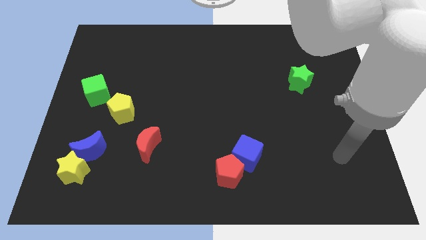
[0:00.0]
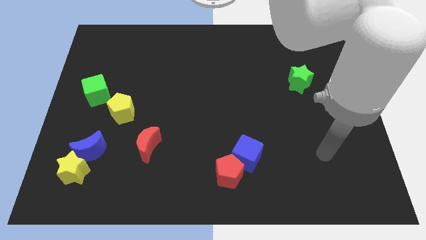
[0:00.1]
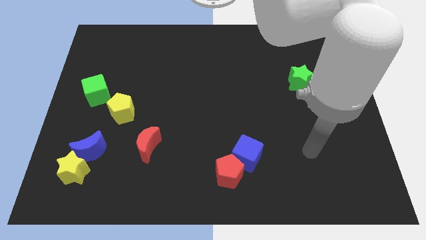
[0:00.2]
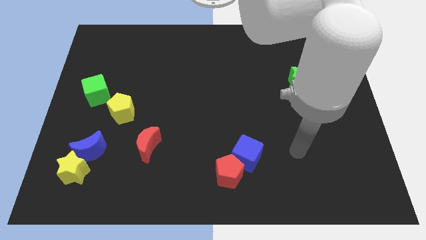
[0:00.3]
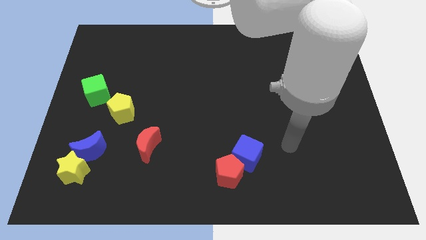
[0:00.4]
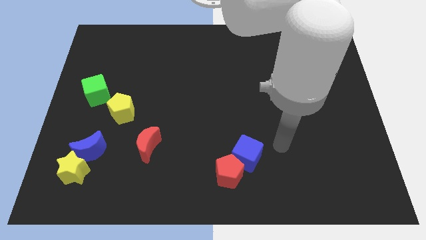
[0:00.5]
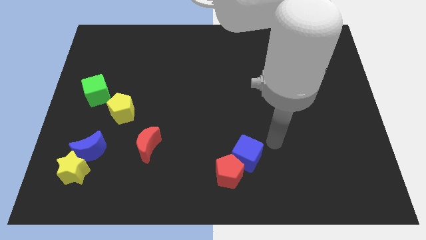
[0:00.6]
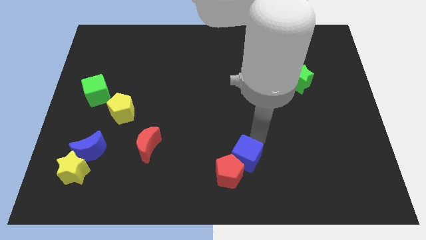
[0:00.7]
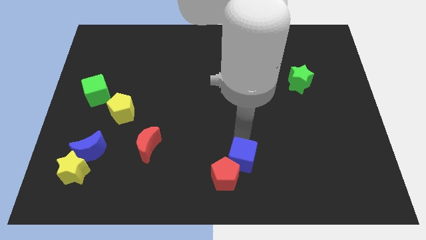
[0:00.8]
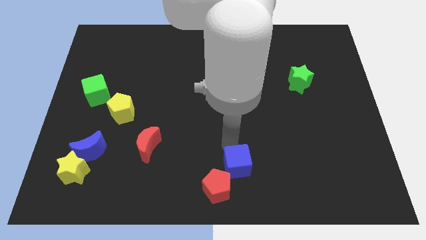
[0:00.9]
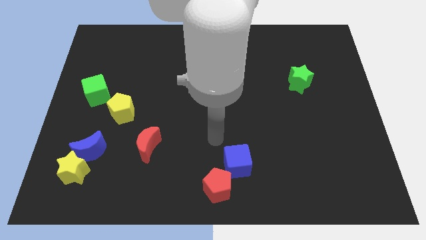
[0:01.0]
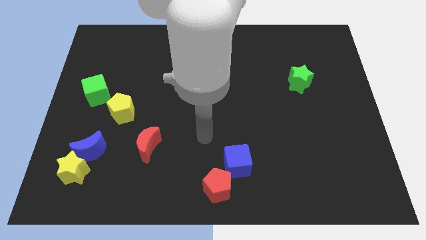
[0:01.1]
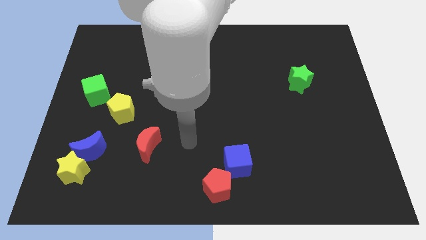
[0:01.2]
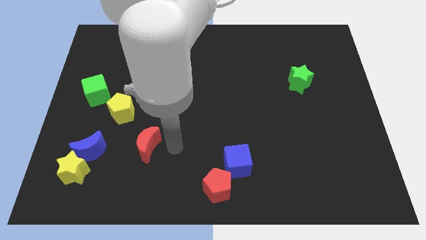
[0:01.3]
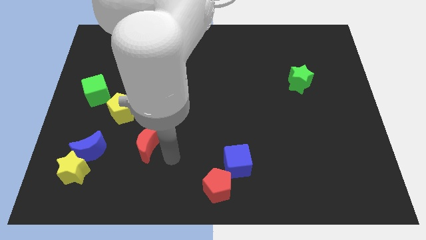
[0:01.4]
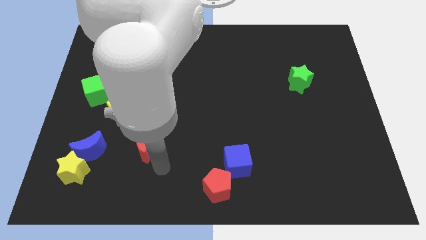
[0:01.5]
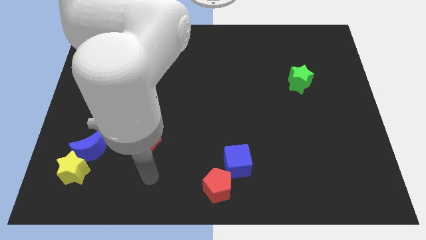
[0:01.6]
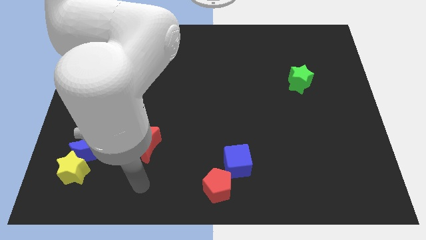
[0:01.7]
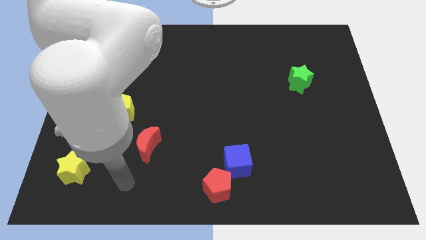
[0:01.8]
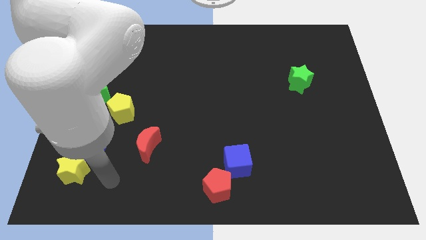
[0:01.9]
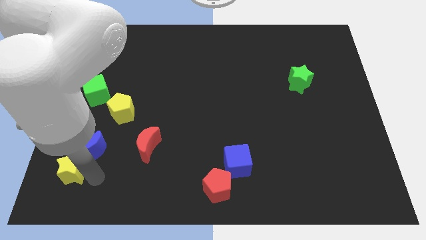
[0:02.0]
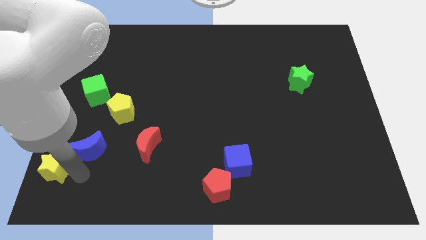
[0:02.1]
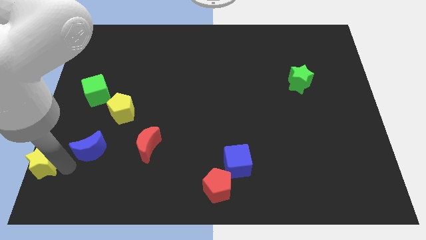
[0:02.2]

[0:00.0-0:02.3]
pull the blue moon apart from the yellow star

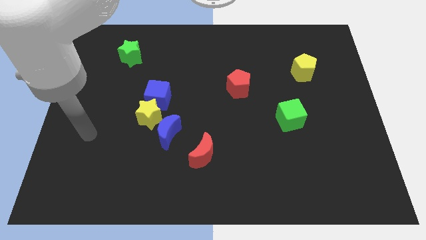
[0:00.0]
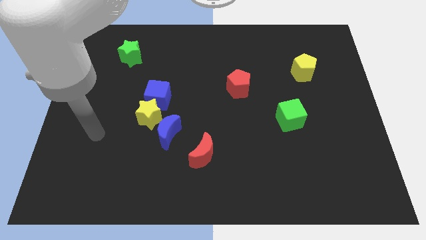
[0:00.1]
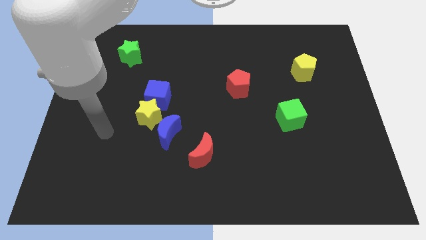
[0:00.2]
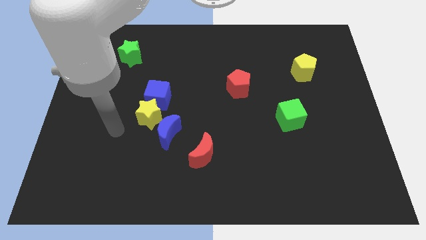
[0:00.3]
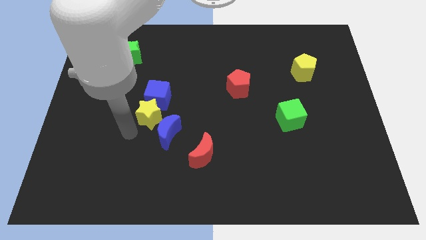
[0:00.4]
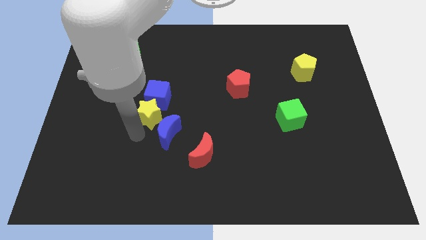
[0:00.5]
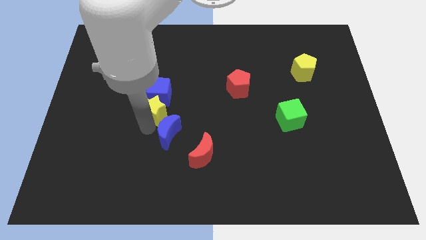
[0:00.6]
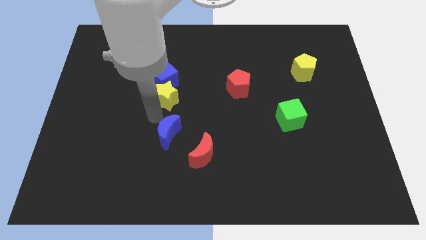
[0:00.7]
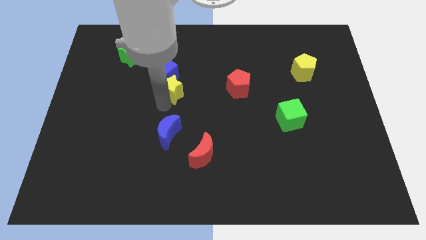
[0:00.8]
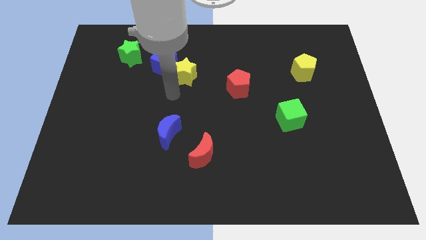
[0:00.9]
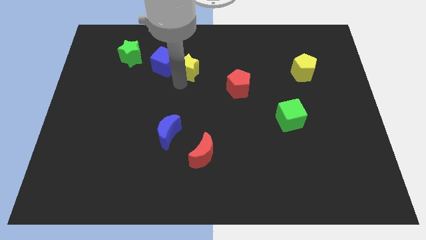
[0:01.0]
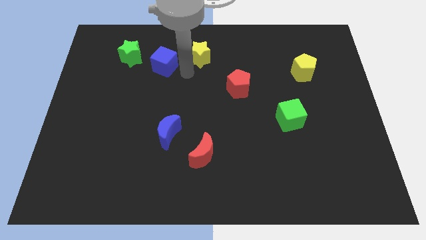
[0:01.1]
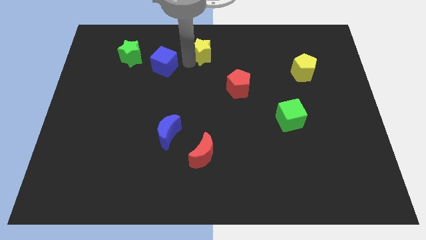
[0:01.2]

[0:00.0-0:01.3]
separate the blue cube from the yellow star

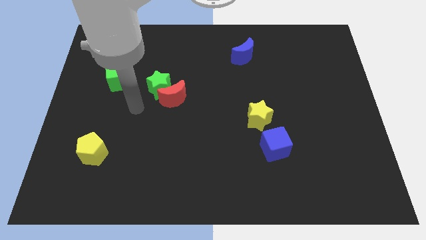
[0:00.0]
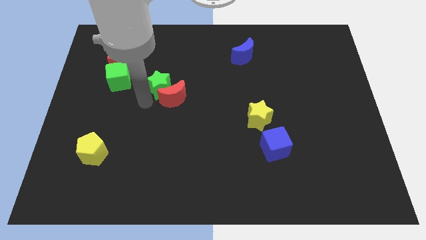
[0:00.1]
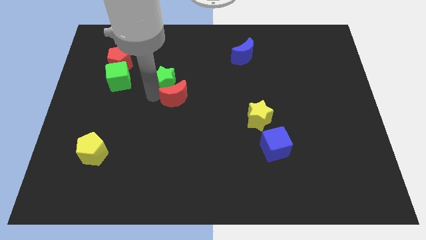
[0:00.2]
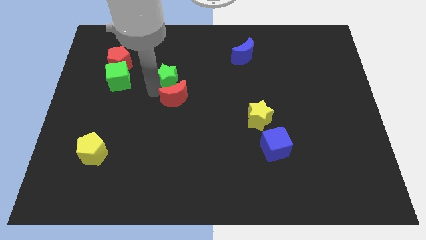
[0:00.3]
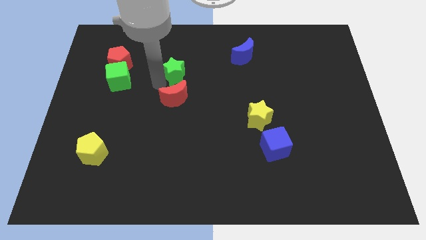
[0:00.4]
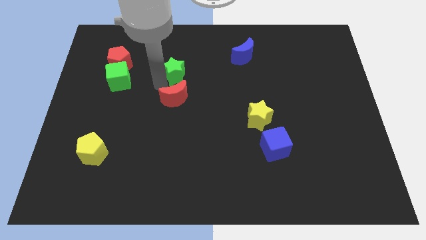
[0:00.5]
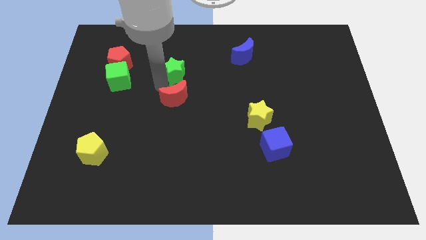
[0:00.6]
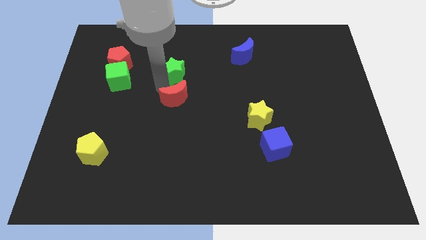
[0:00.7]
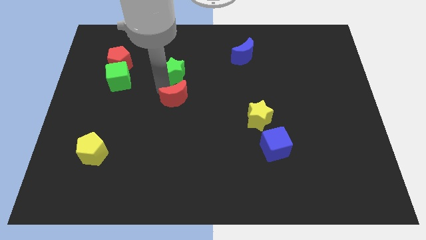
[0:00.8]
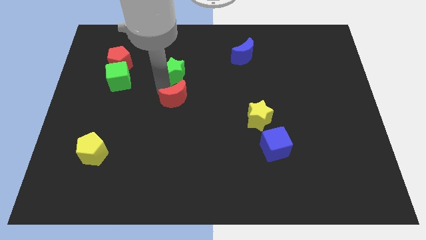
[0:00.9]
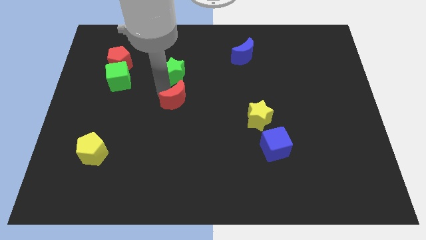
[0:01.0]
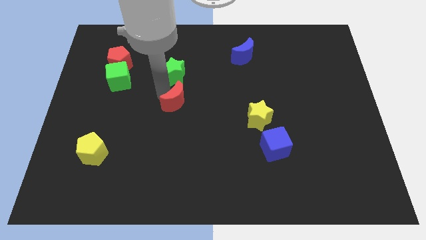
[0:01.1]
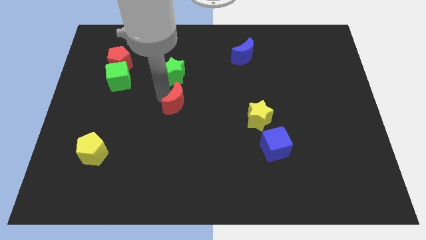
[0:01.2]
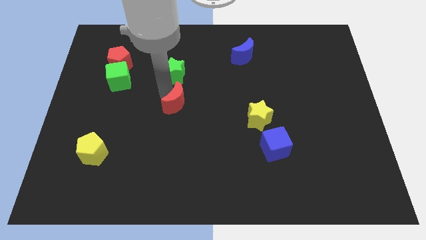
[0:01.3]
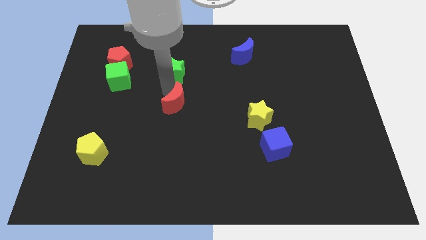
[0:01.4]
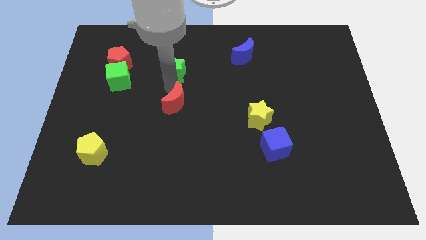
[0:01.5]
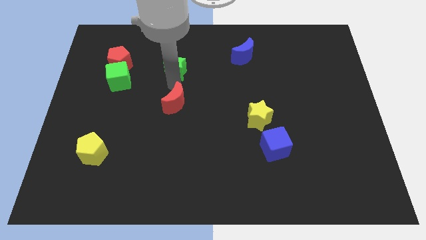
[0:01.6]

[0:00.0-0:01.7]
pull the red moon apart from the green star

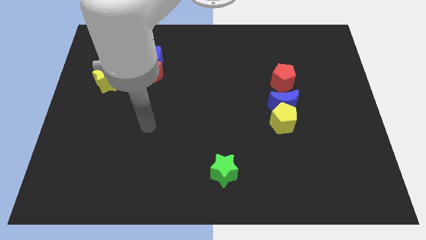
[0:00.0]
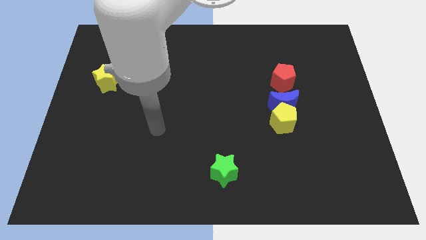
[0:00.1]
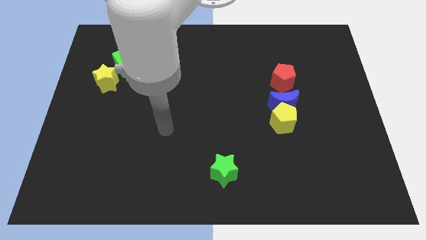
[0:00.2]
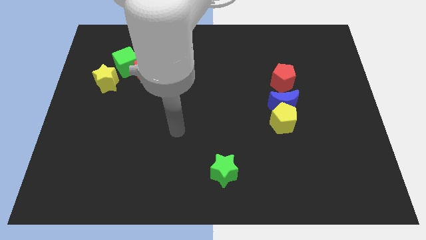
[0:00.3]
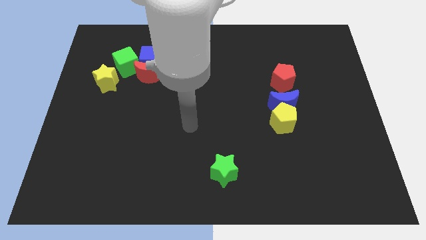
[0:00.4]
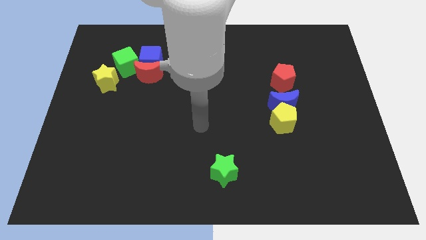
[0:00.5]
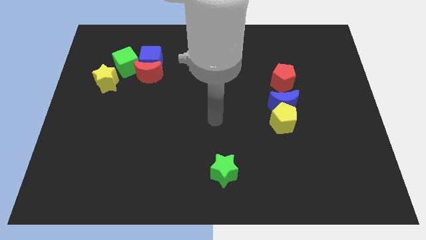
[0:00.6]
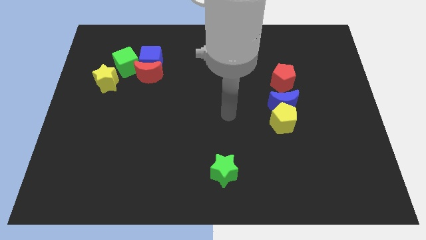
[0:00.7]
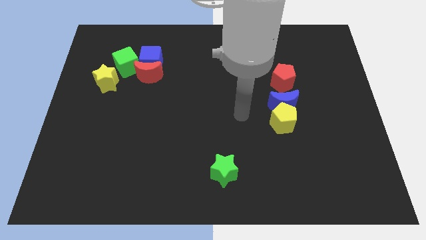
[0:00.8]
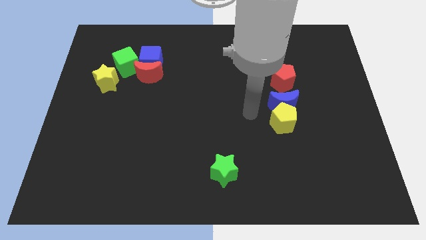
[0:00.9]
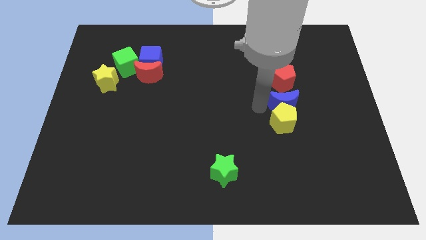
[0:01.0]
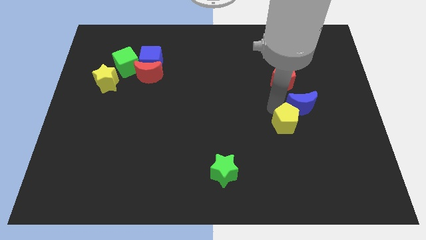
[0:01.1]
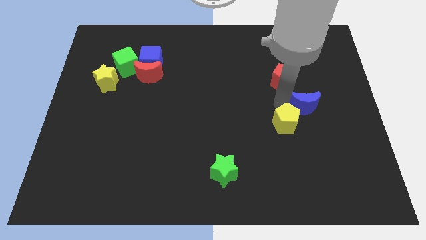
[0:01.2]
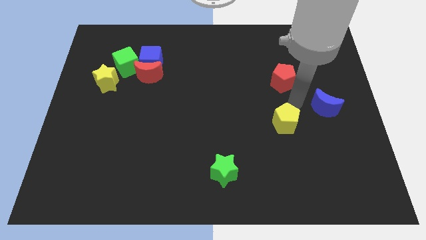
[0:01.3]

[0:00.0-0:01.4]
move the yellow pentagon away from the blue moon

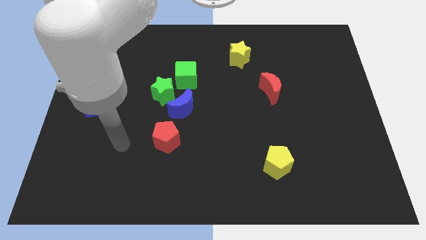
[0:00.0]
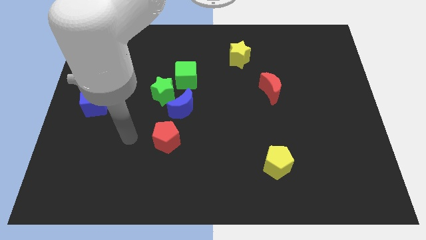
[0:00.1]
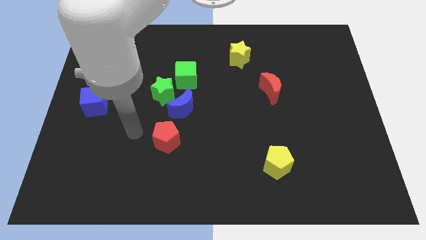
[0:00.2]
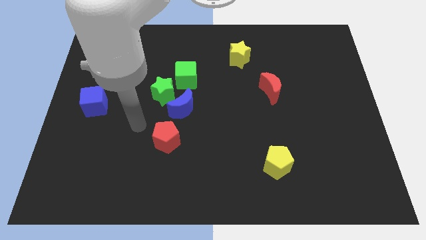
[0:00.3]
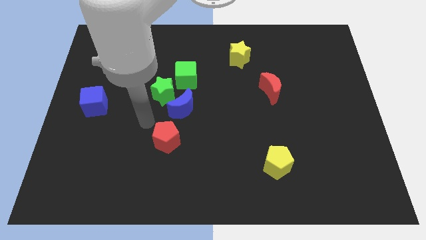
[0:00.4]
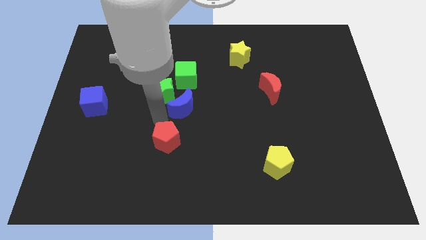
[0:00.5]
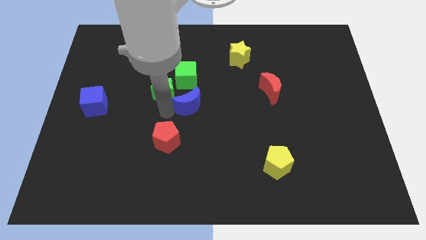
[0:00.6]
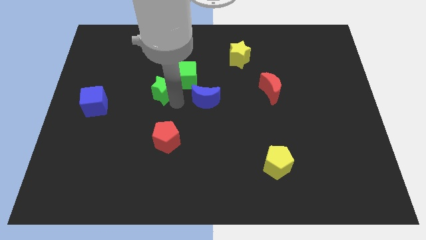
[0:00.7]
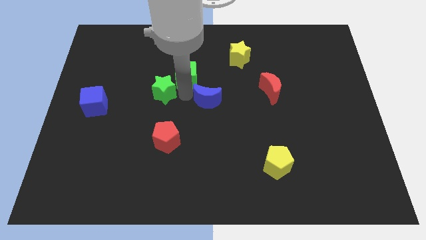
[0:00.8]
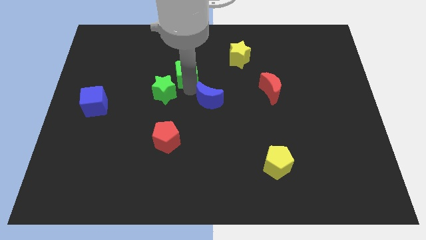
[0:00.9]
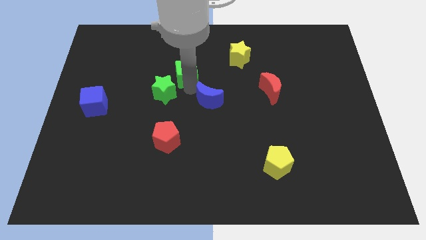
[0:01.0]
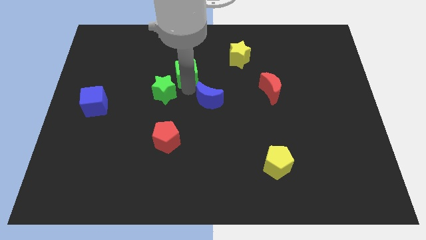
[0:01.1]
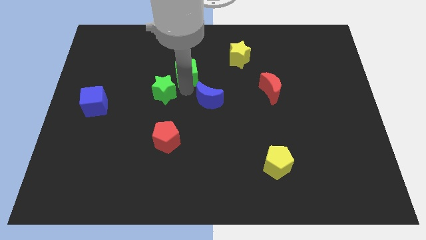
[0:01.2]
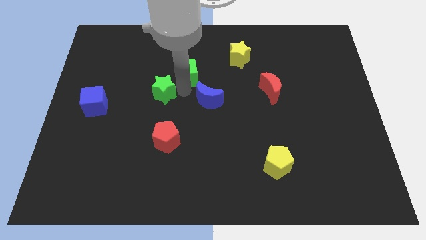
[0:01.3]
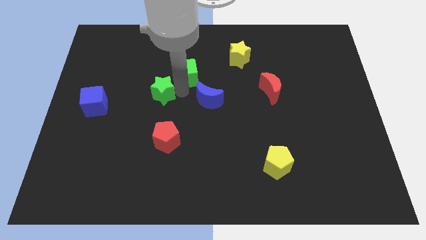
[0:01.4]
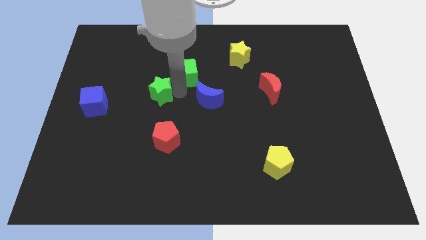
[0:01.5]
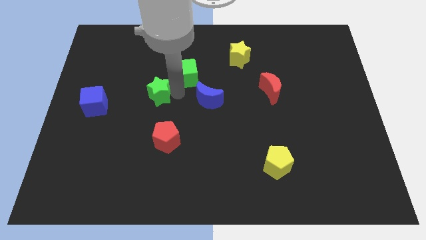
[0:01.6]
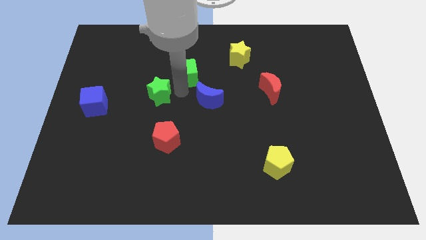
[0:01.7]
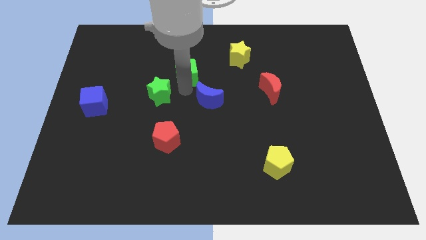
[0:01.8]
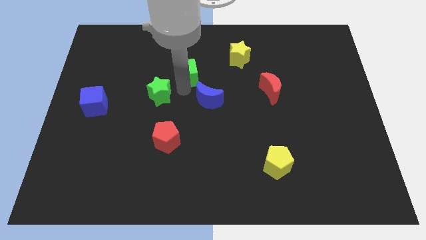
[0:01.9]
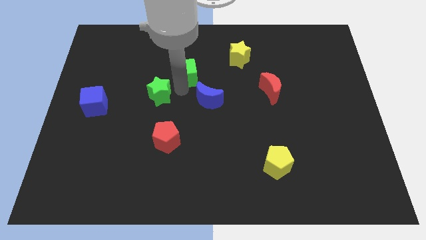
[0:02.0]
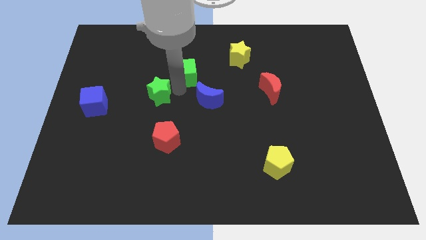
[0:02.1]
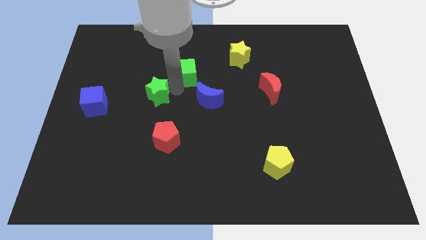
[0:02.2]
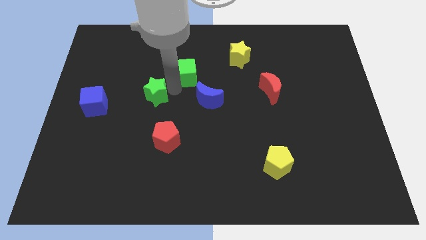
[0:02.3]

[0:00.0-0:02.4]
separate the green star from the blue moon and green cube

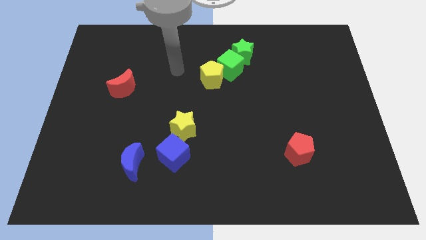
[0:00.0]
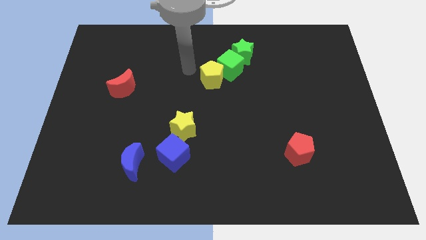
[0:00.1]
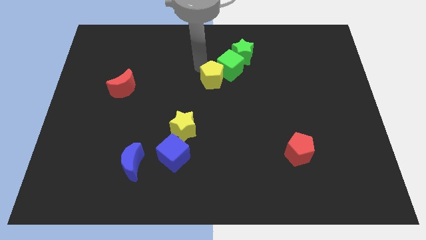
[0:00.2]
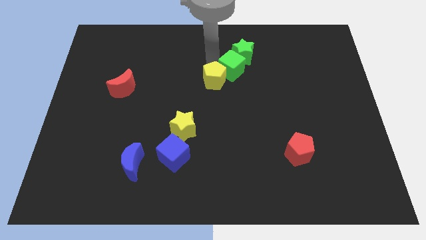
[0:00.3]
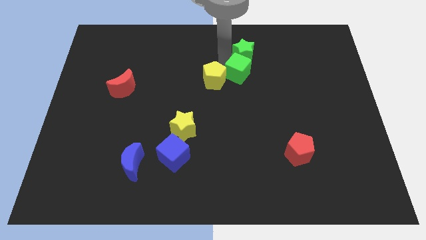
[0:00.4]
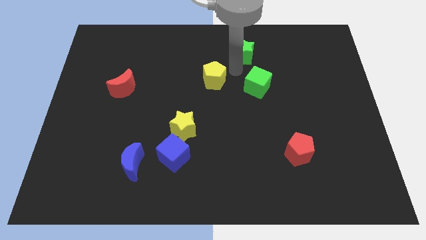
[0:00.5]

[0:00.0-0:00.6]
pull the yellow pentagon apart from the green cube
